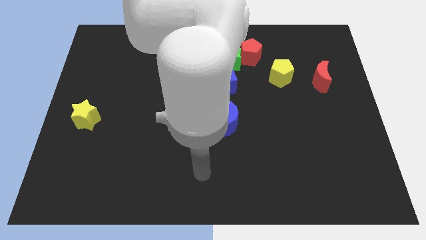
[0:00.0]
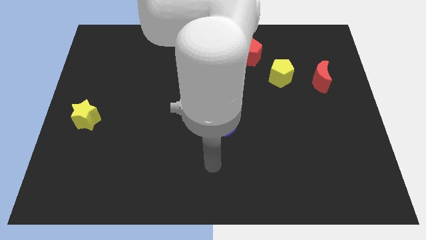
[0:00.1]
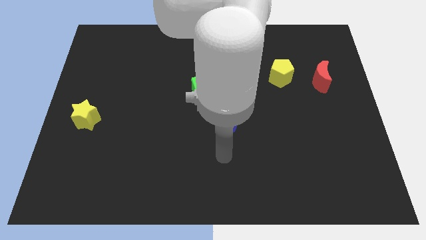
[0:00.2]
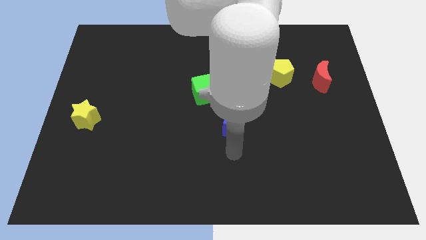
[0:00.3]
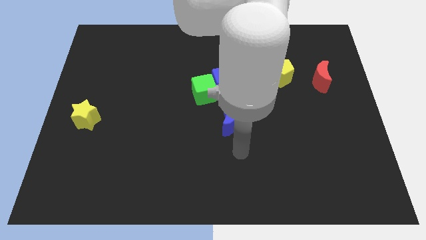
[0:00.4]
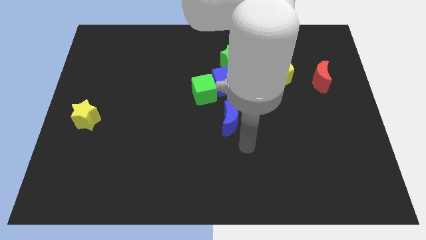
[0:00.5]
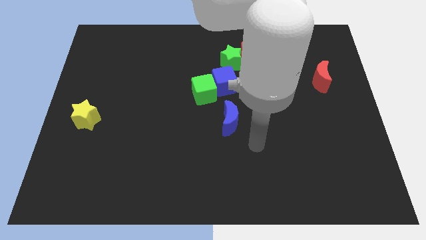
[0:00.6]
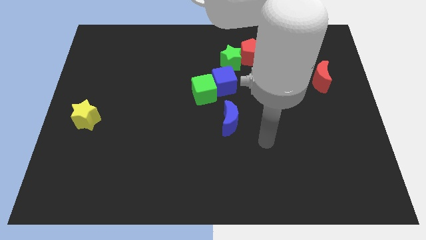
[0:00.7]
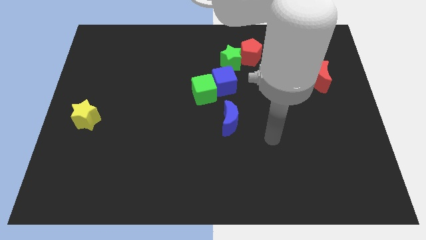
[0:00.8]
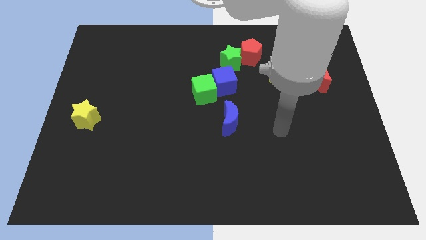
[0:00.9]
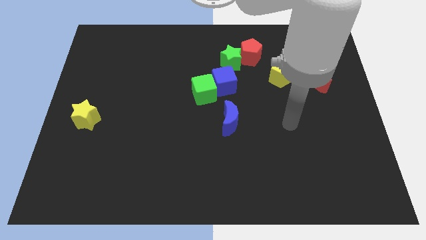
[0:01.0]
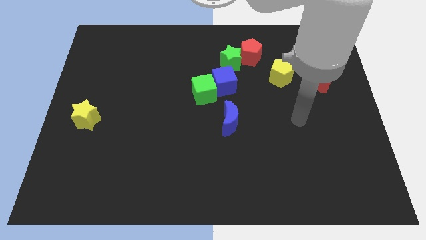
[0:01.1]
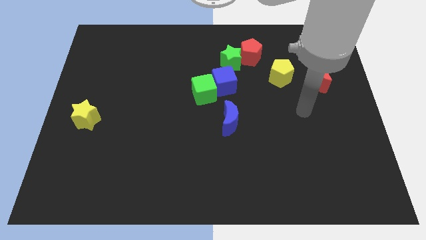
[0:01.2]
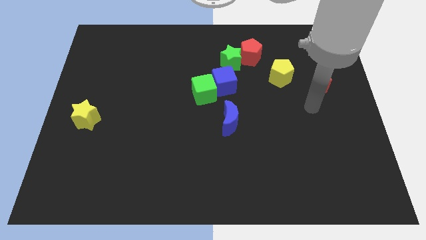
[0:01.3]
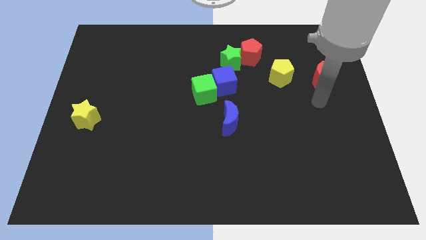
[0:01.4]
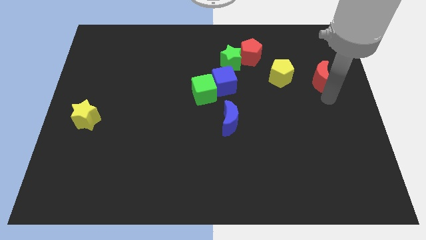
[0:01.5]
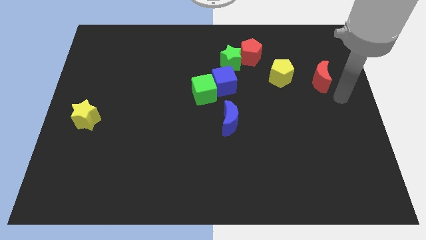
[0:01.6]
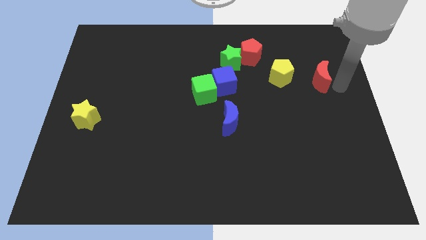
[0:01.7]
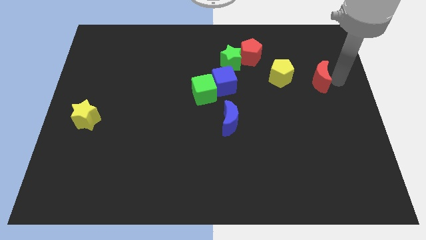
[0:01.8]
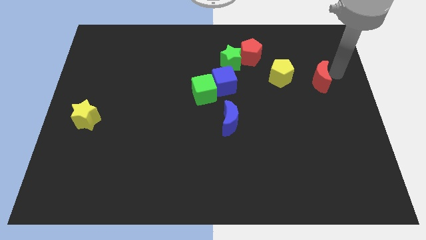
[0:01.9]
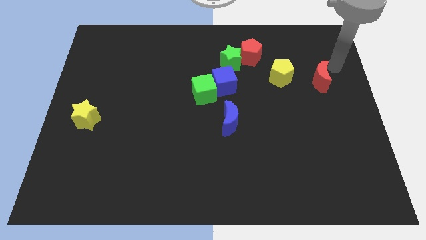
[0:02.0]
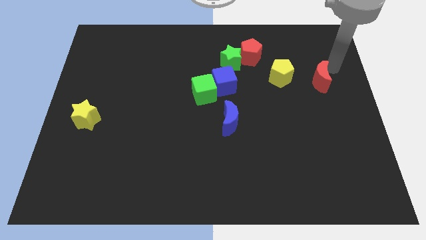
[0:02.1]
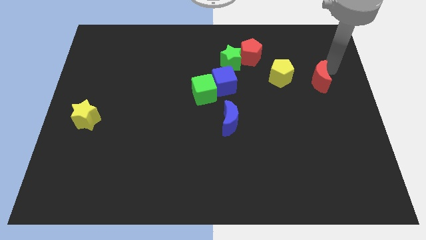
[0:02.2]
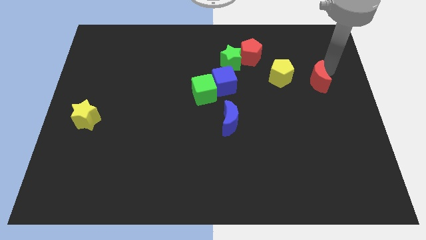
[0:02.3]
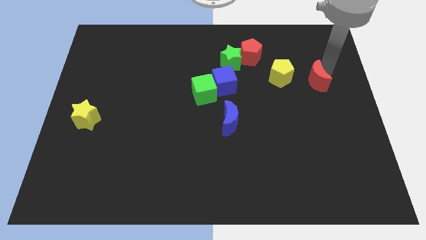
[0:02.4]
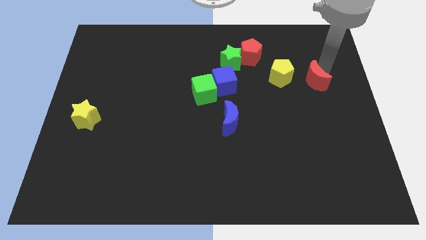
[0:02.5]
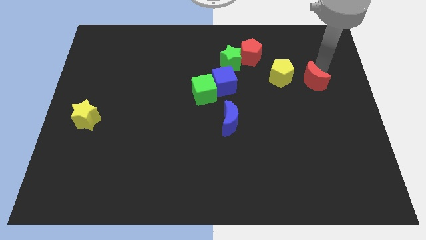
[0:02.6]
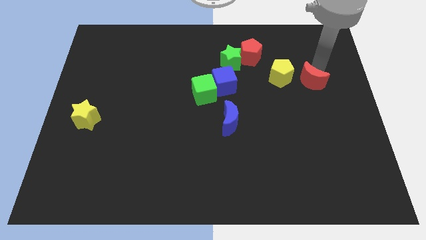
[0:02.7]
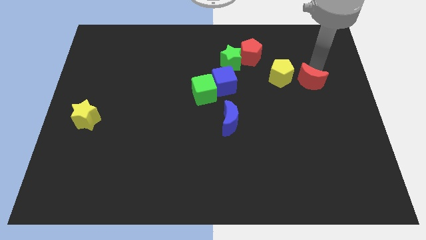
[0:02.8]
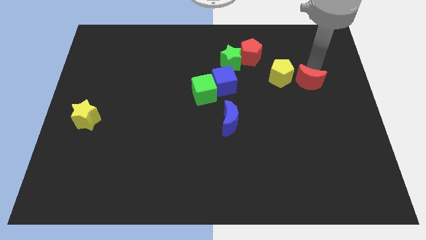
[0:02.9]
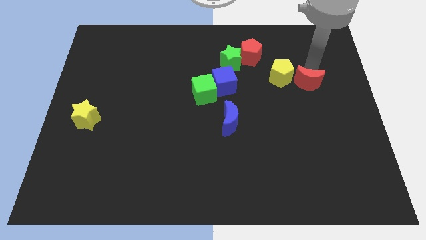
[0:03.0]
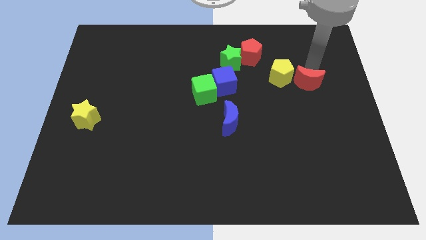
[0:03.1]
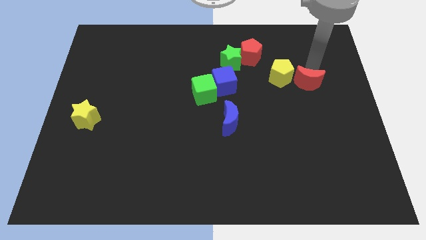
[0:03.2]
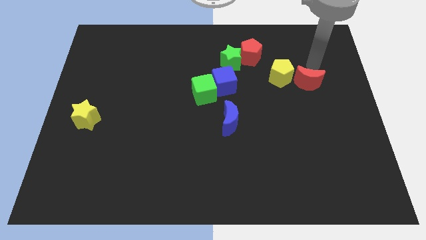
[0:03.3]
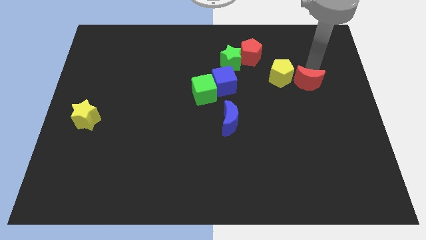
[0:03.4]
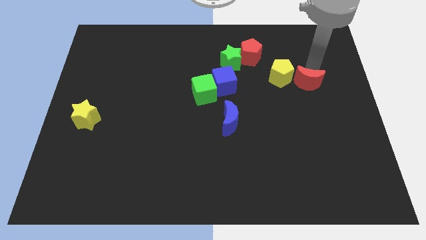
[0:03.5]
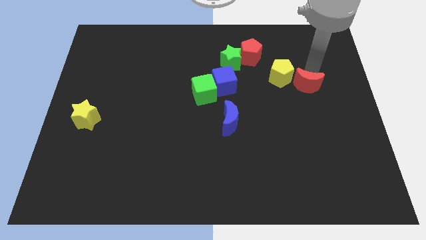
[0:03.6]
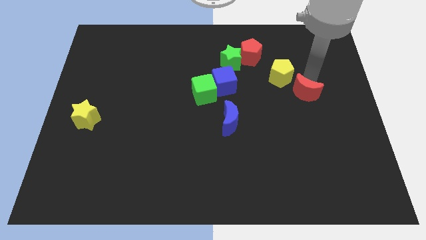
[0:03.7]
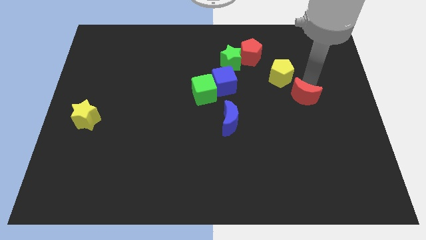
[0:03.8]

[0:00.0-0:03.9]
move the red moon somewhat downwards and then left

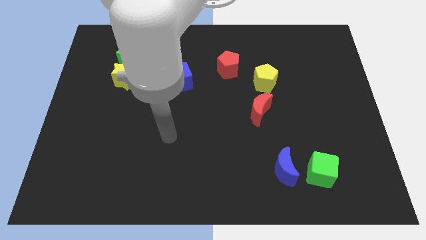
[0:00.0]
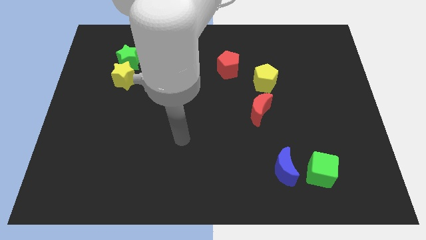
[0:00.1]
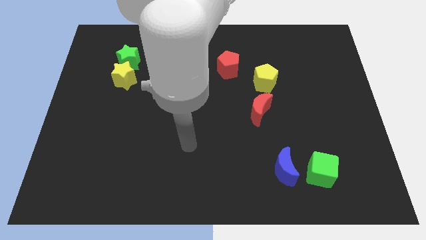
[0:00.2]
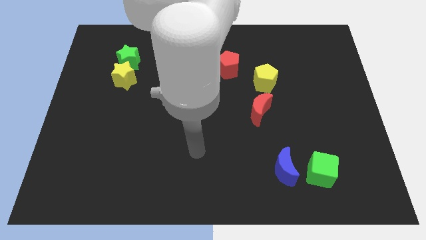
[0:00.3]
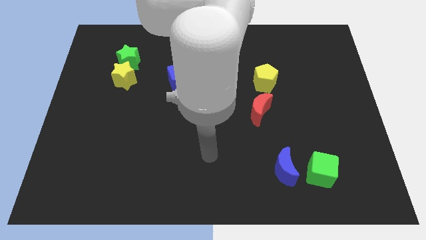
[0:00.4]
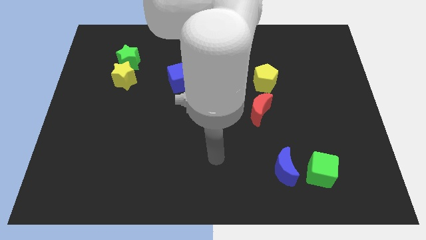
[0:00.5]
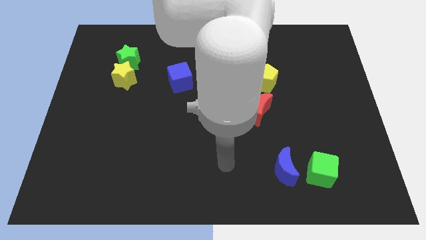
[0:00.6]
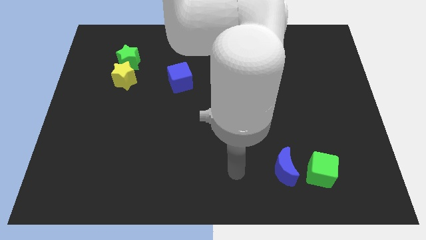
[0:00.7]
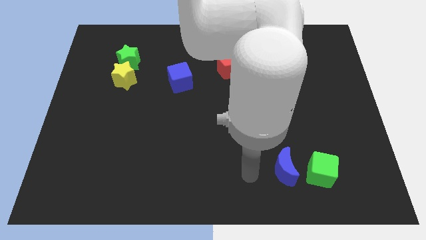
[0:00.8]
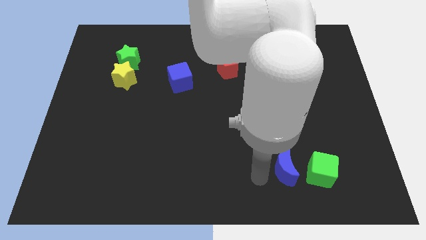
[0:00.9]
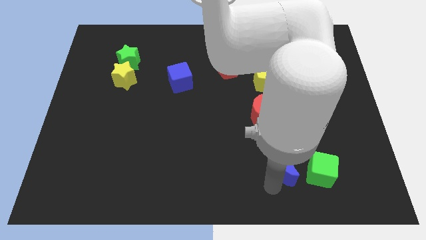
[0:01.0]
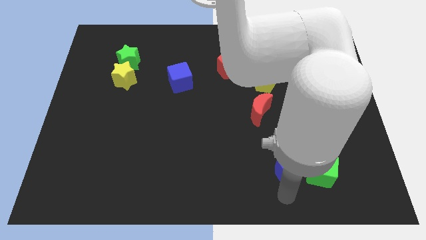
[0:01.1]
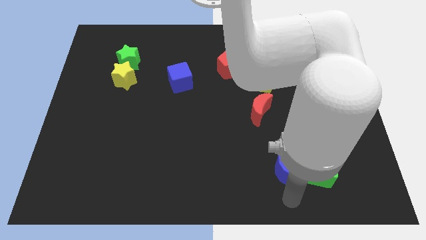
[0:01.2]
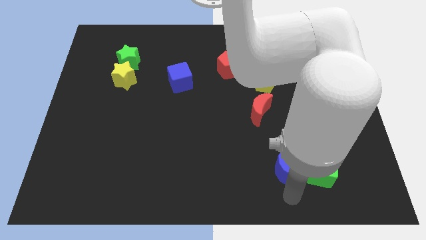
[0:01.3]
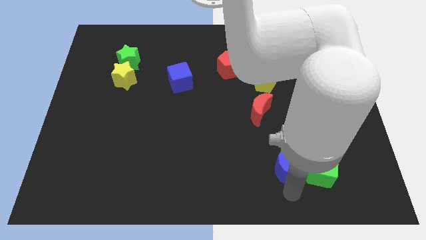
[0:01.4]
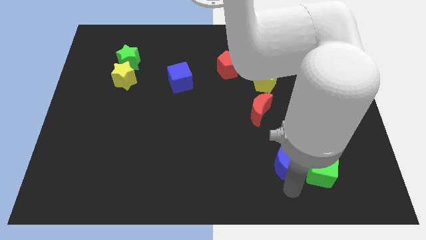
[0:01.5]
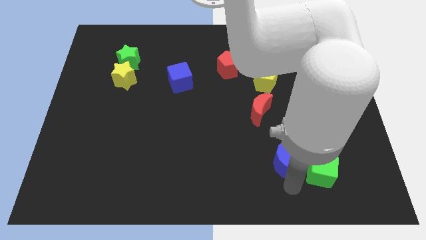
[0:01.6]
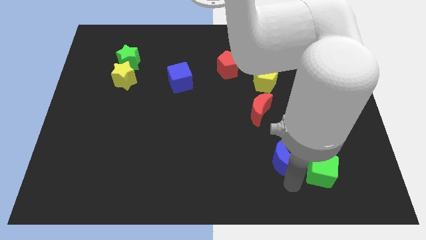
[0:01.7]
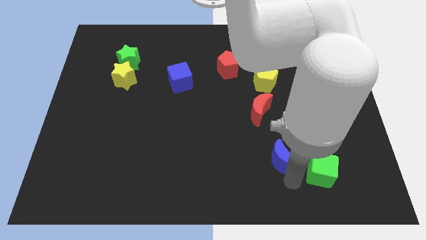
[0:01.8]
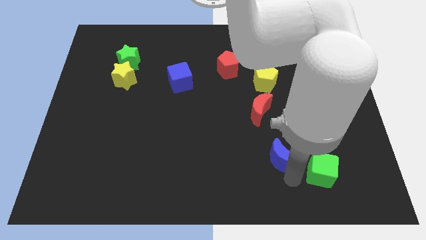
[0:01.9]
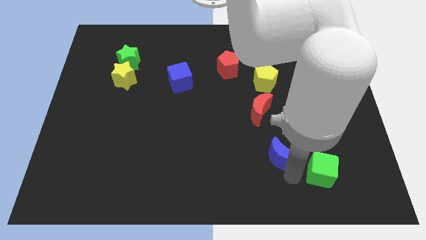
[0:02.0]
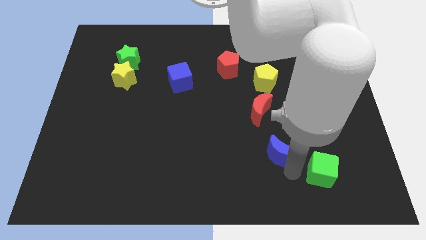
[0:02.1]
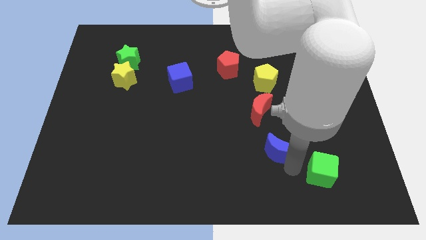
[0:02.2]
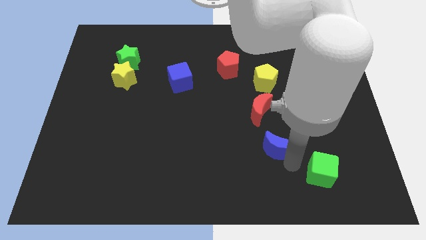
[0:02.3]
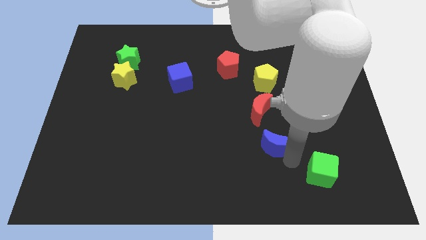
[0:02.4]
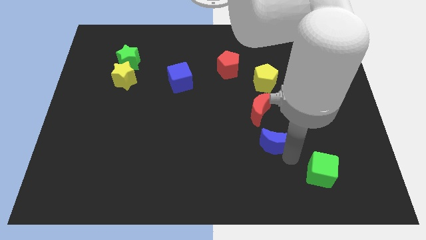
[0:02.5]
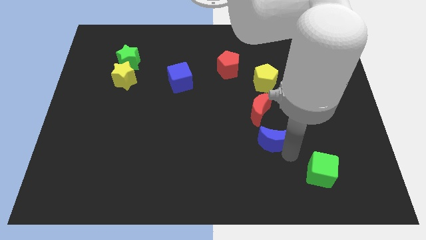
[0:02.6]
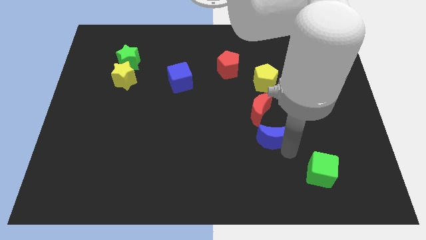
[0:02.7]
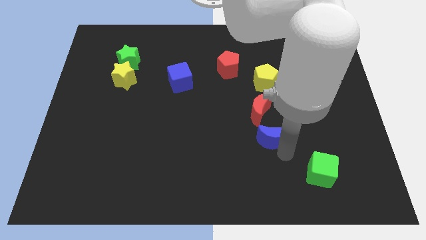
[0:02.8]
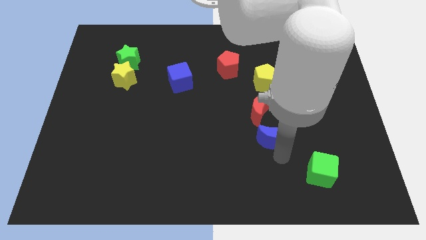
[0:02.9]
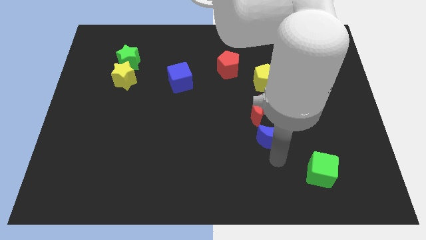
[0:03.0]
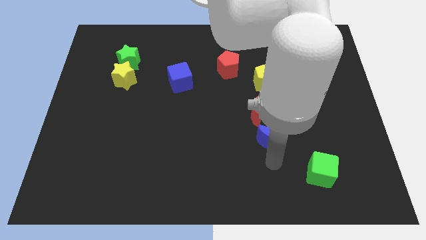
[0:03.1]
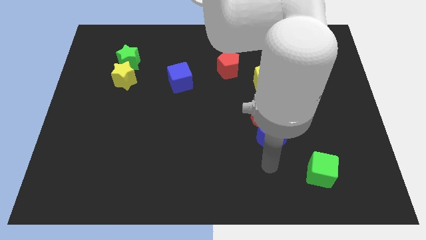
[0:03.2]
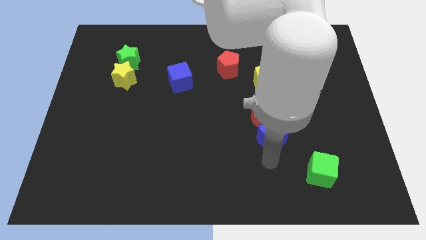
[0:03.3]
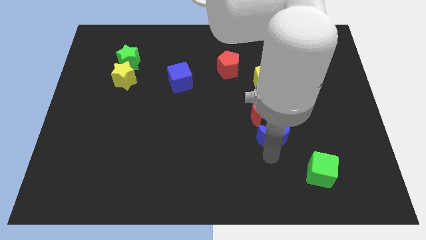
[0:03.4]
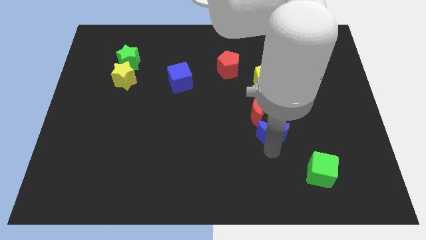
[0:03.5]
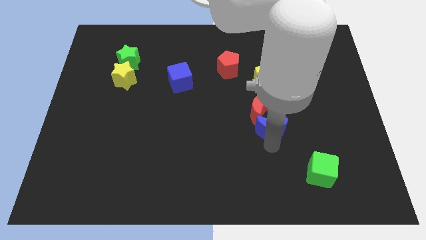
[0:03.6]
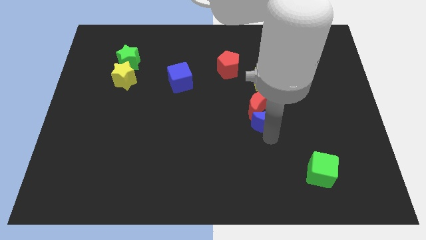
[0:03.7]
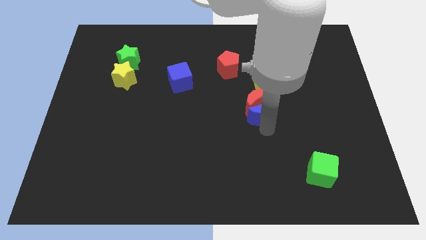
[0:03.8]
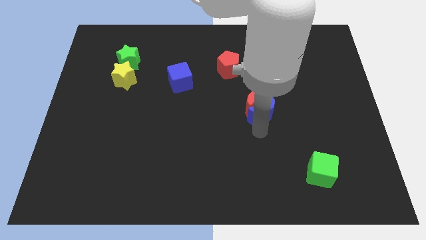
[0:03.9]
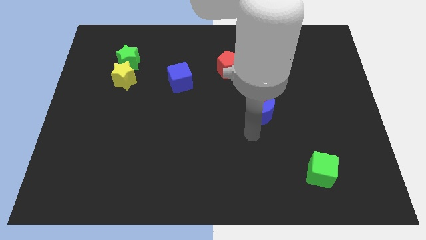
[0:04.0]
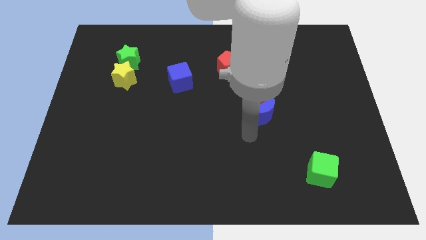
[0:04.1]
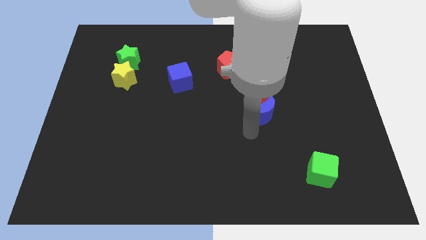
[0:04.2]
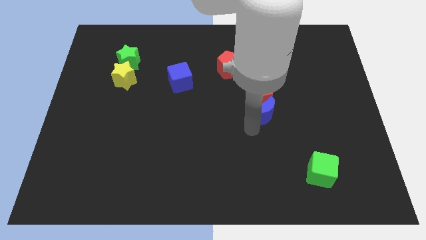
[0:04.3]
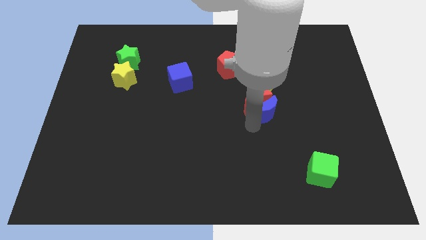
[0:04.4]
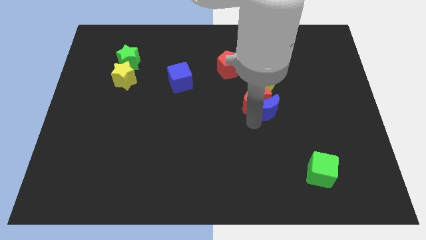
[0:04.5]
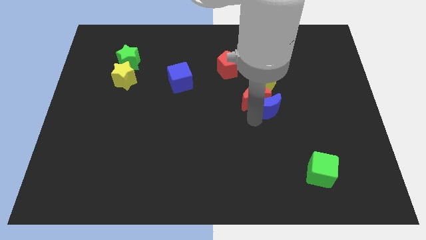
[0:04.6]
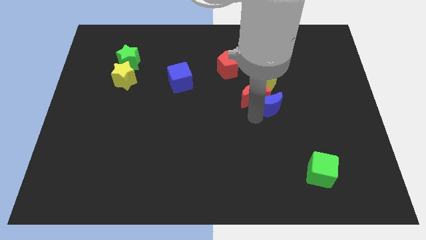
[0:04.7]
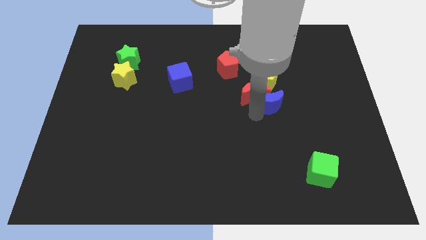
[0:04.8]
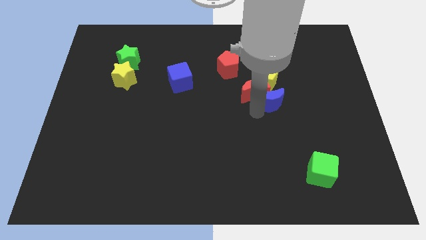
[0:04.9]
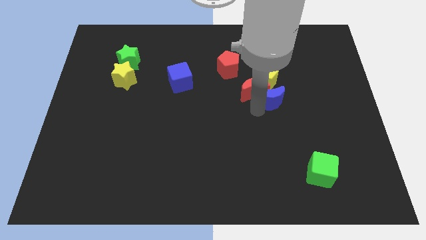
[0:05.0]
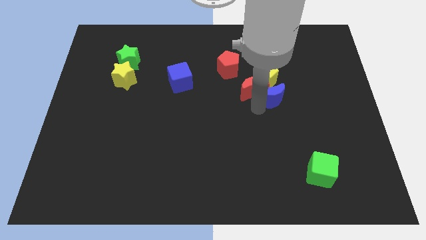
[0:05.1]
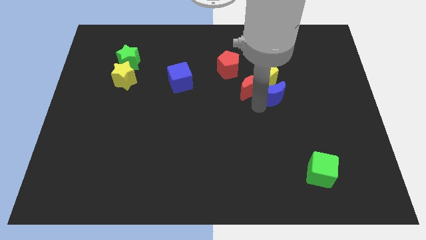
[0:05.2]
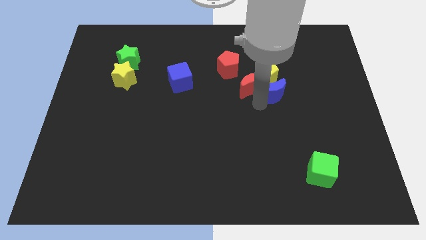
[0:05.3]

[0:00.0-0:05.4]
push the blue moon up
